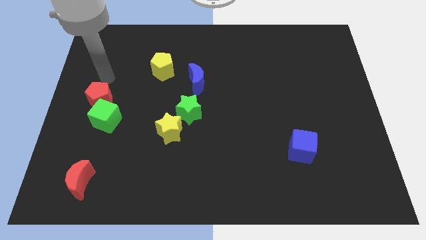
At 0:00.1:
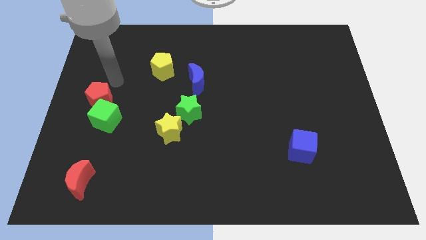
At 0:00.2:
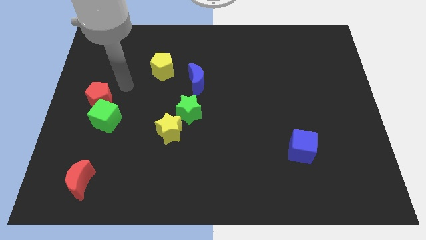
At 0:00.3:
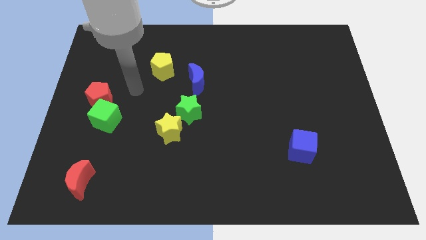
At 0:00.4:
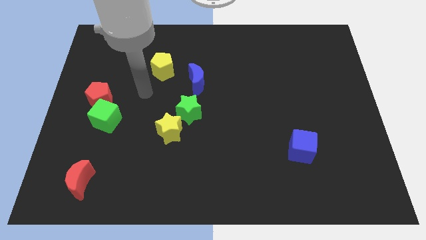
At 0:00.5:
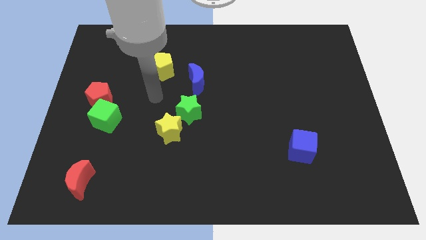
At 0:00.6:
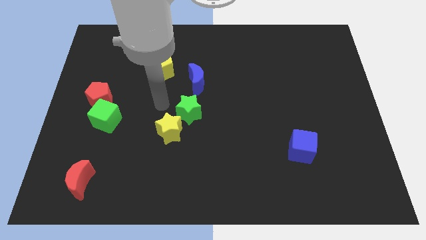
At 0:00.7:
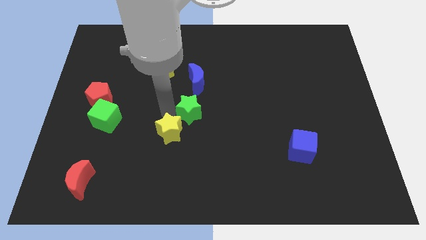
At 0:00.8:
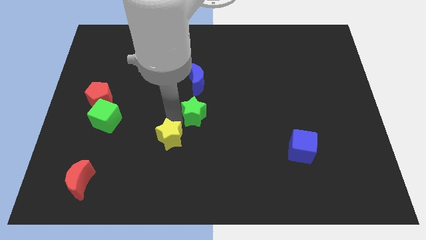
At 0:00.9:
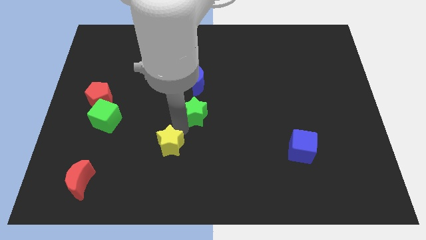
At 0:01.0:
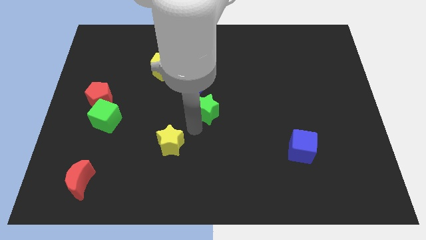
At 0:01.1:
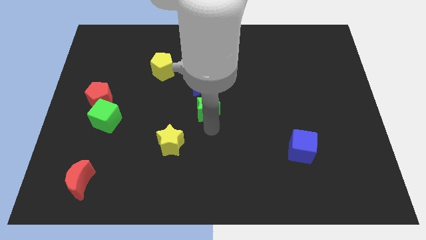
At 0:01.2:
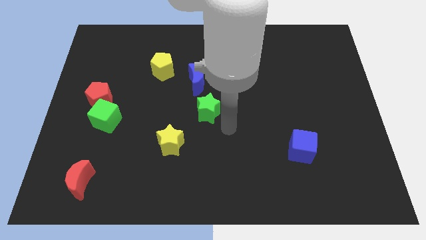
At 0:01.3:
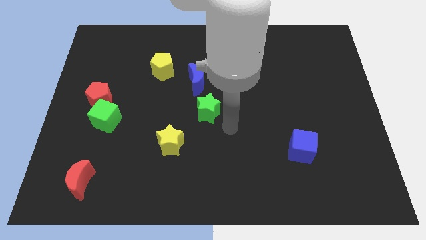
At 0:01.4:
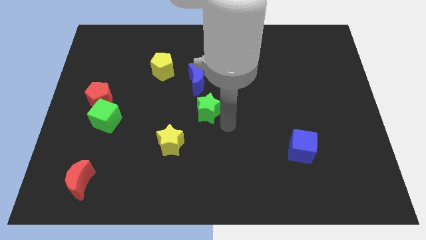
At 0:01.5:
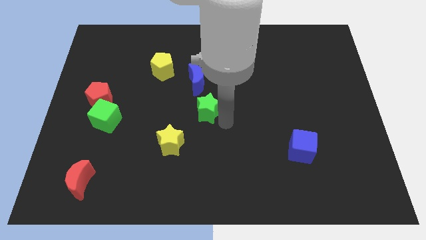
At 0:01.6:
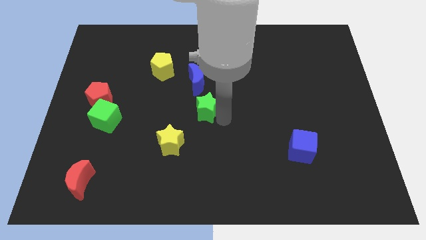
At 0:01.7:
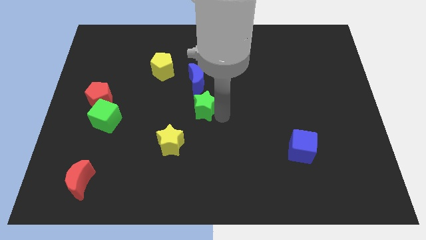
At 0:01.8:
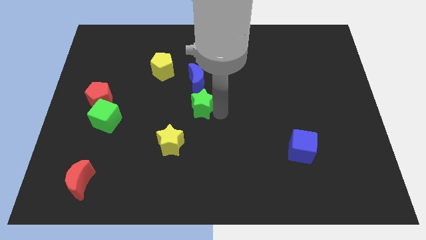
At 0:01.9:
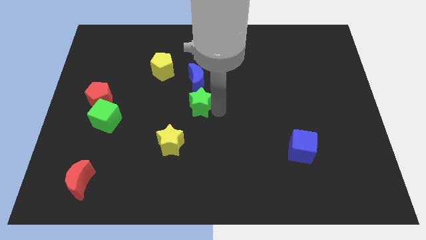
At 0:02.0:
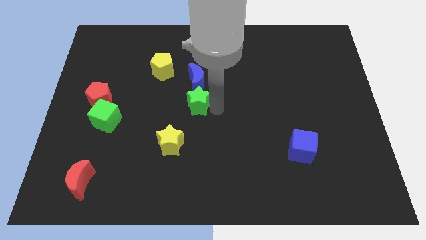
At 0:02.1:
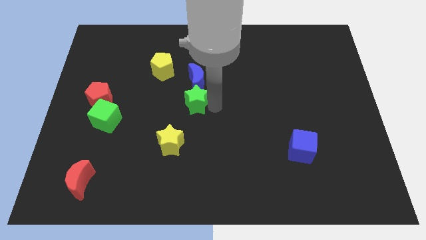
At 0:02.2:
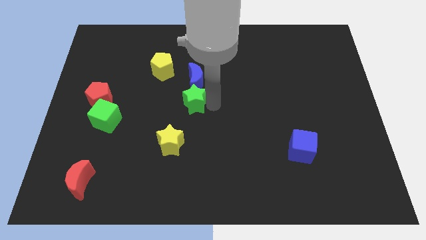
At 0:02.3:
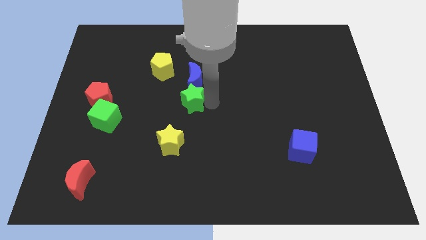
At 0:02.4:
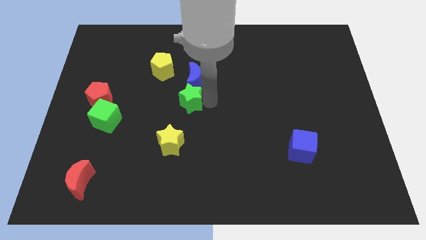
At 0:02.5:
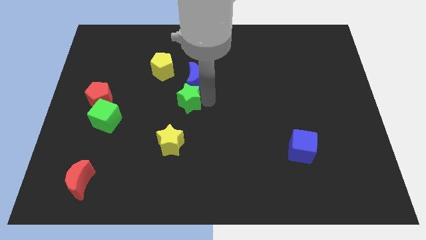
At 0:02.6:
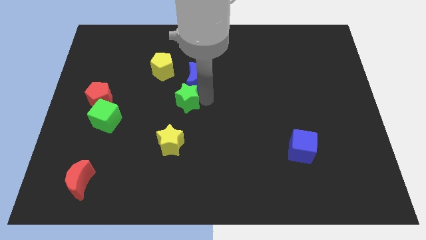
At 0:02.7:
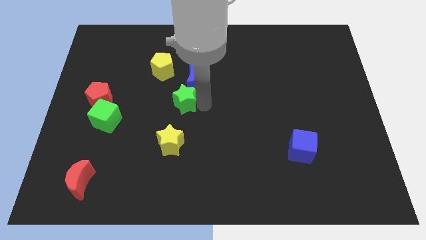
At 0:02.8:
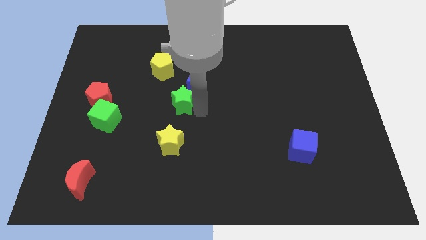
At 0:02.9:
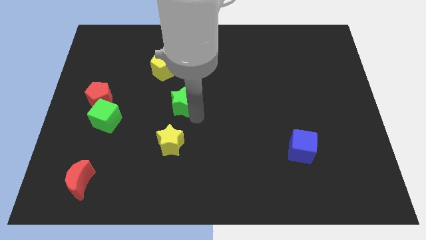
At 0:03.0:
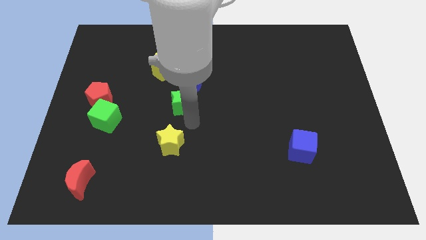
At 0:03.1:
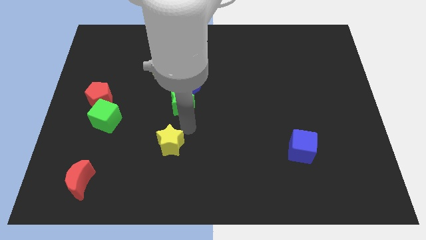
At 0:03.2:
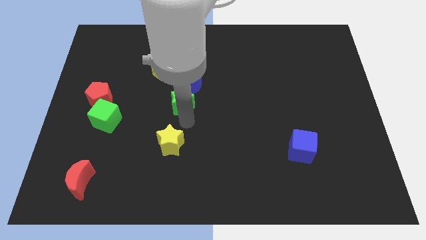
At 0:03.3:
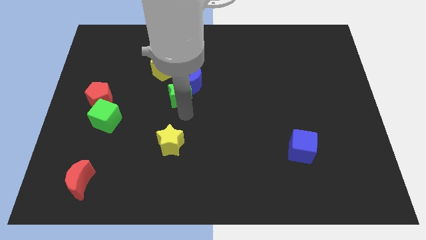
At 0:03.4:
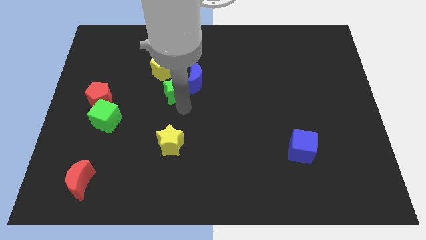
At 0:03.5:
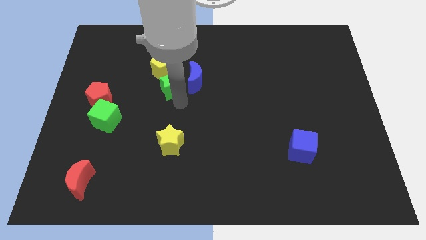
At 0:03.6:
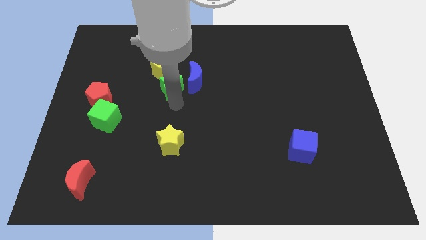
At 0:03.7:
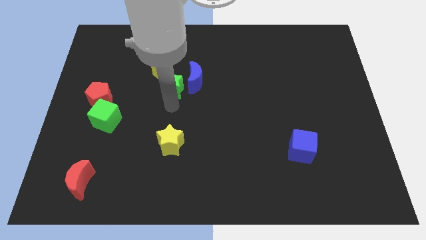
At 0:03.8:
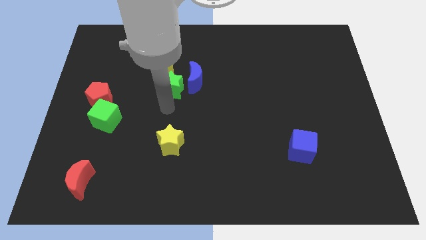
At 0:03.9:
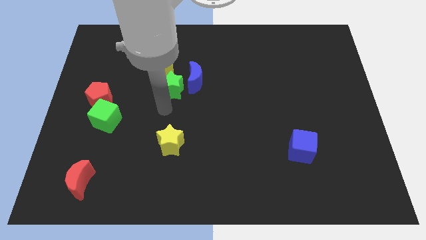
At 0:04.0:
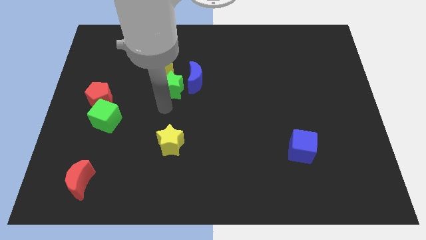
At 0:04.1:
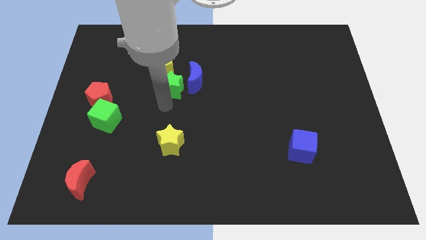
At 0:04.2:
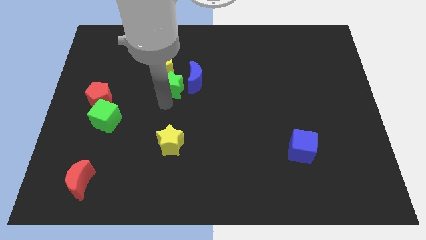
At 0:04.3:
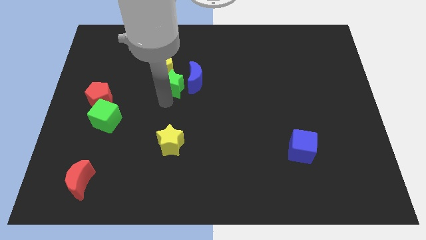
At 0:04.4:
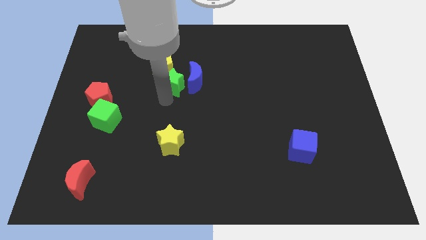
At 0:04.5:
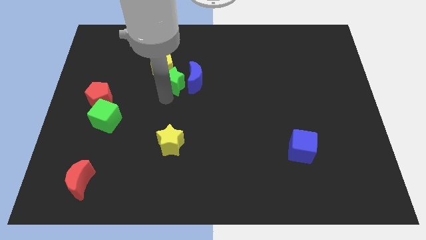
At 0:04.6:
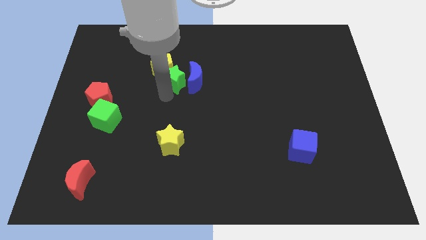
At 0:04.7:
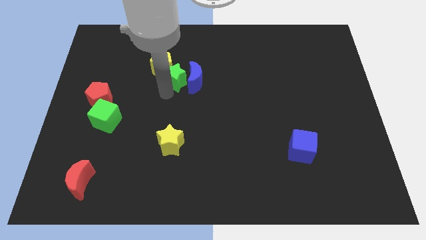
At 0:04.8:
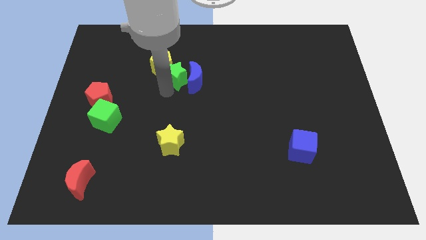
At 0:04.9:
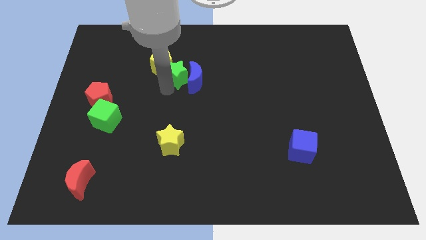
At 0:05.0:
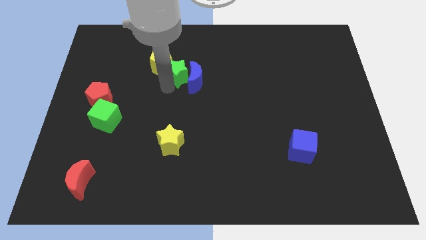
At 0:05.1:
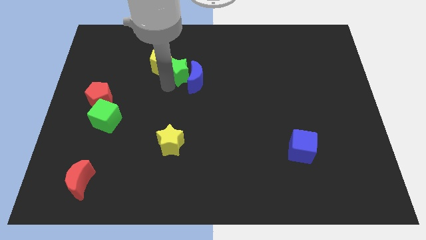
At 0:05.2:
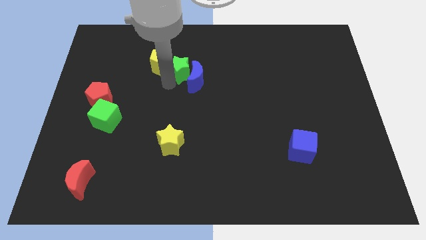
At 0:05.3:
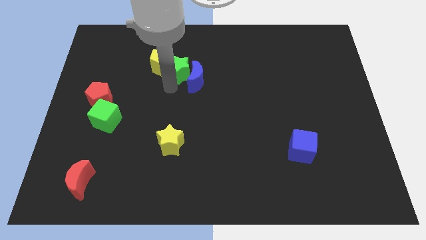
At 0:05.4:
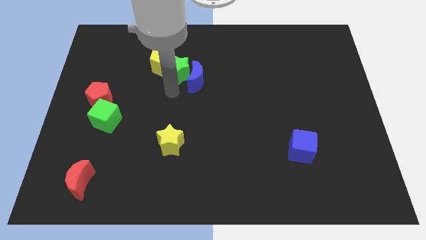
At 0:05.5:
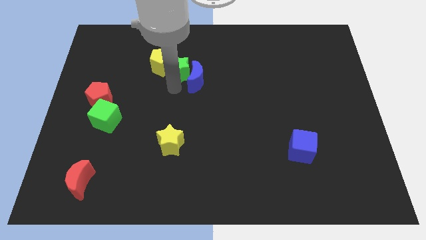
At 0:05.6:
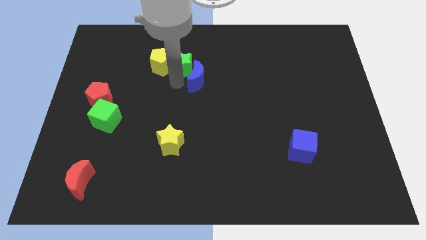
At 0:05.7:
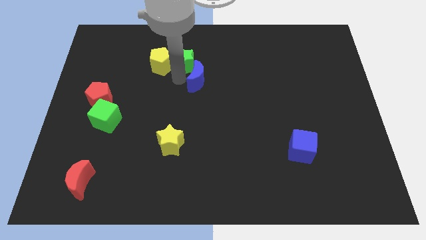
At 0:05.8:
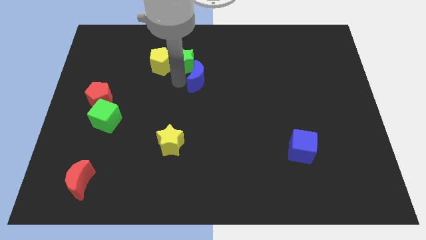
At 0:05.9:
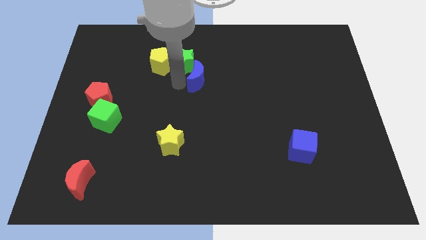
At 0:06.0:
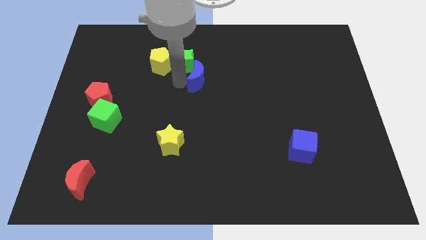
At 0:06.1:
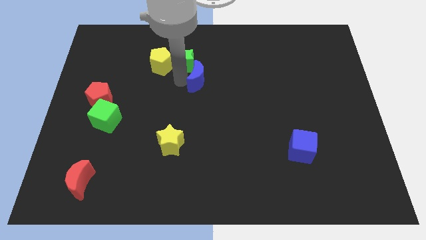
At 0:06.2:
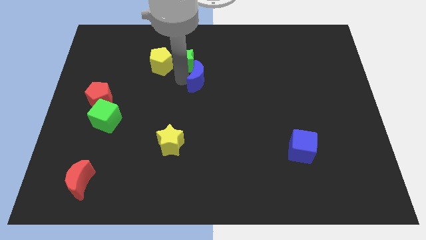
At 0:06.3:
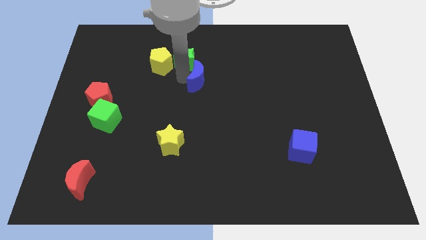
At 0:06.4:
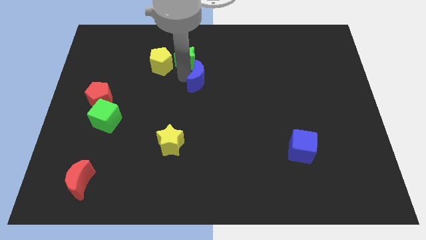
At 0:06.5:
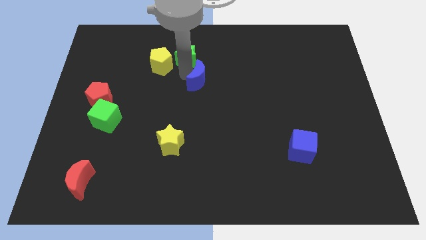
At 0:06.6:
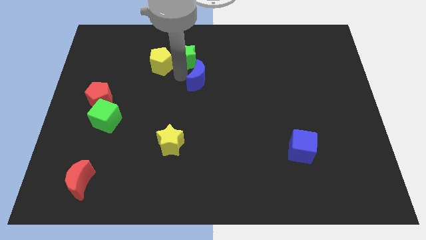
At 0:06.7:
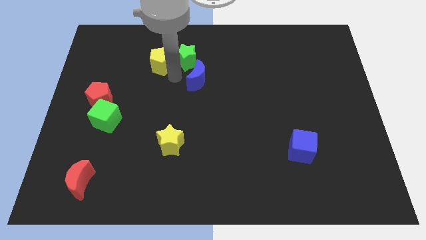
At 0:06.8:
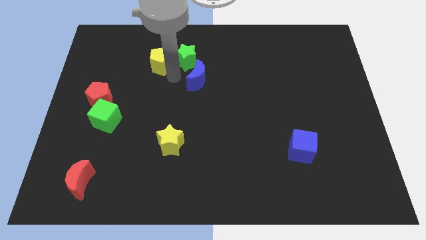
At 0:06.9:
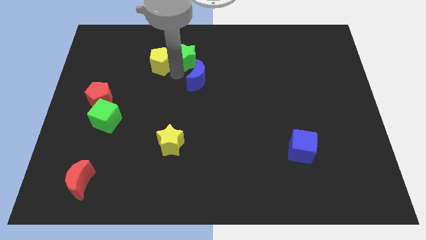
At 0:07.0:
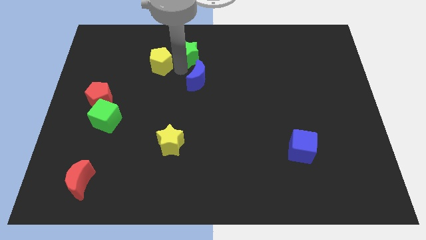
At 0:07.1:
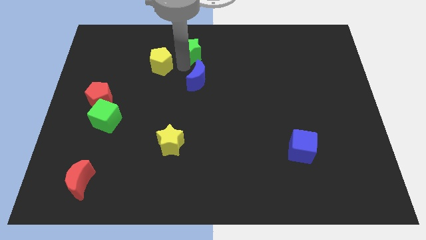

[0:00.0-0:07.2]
push the green star to the top side
